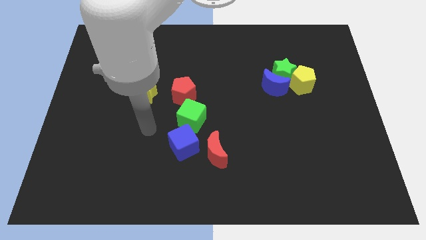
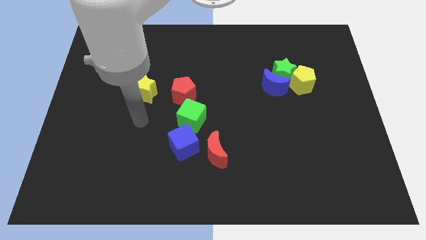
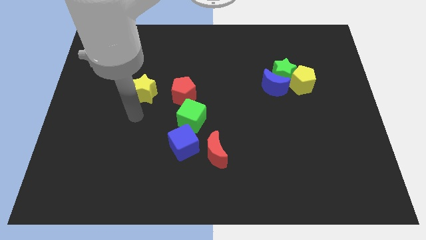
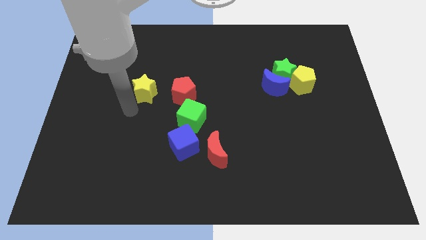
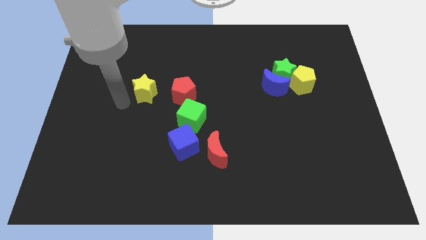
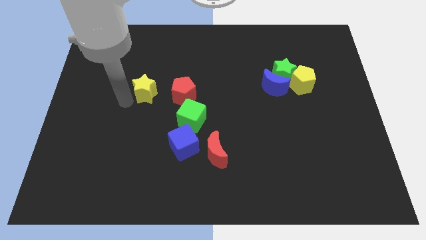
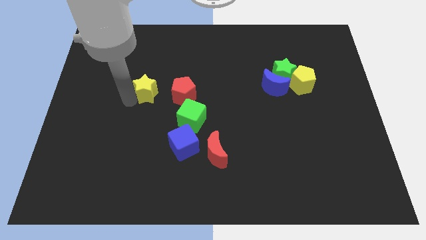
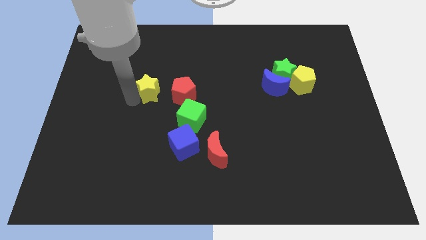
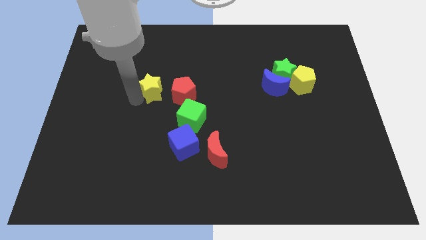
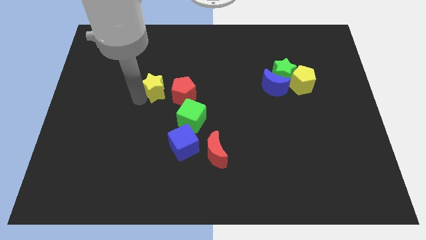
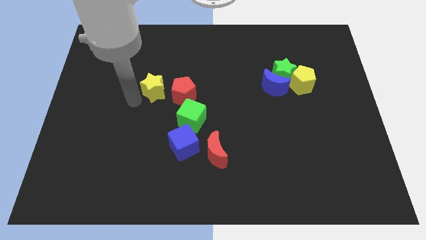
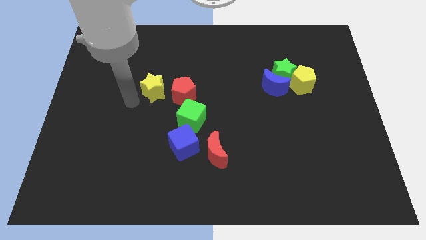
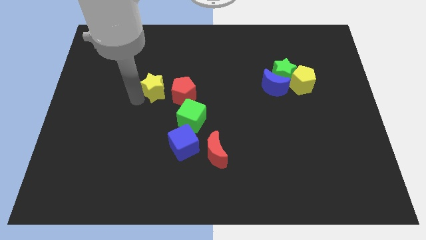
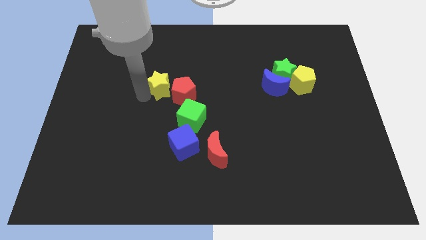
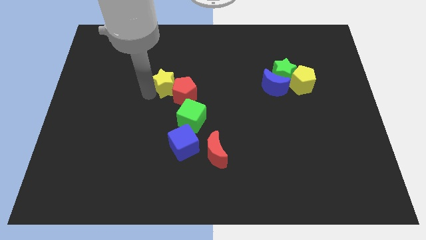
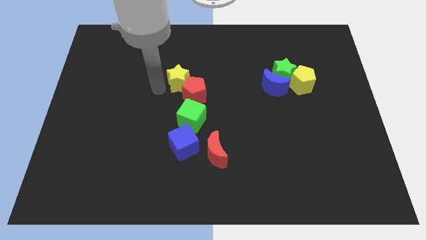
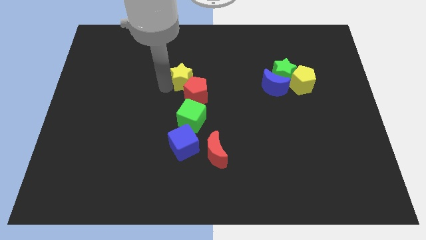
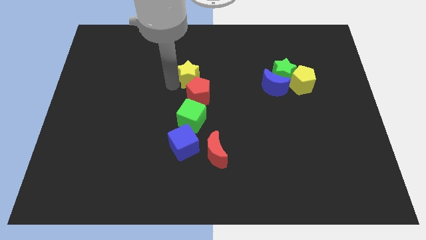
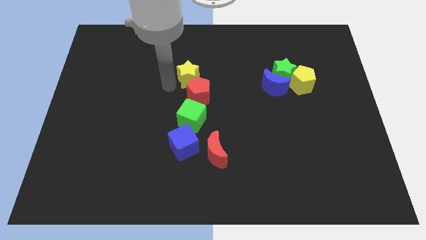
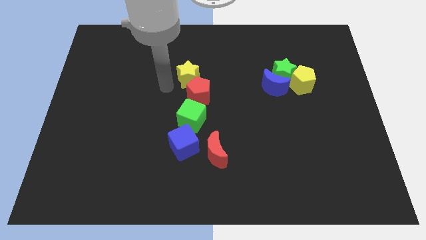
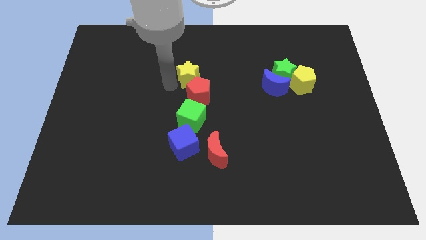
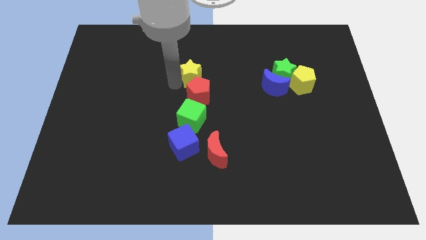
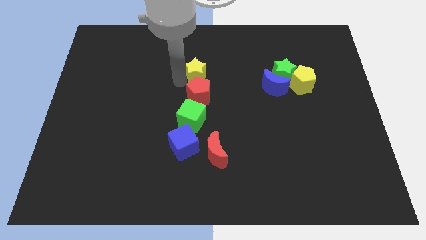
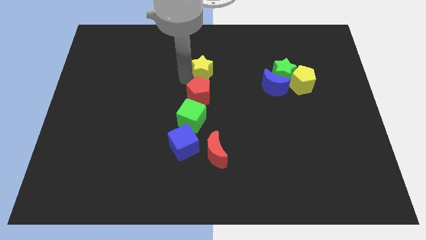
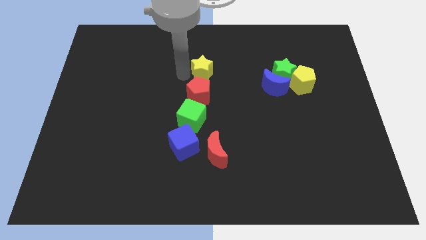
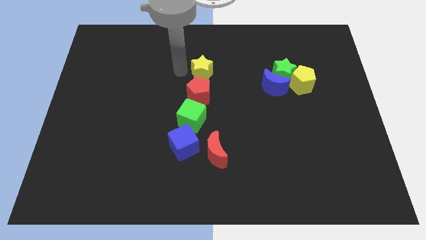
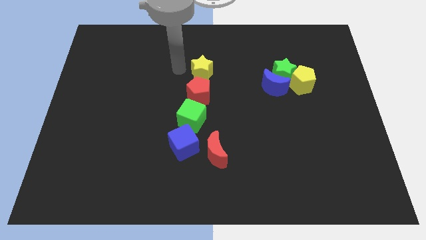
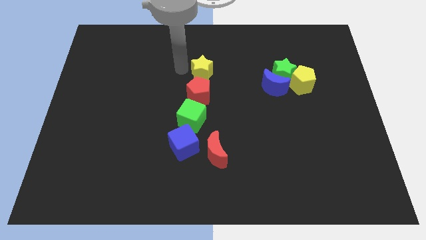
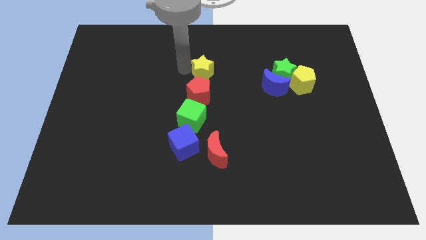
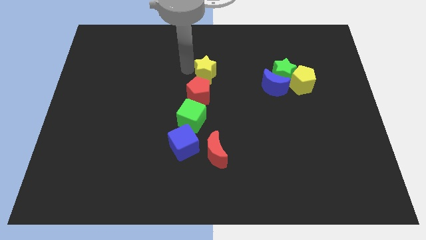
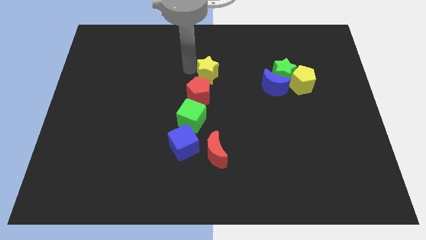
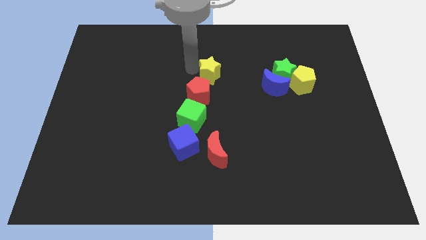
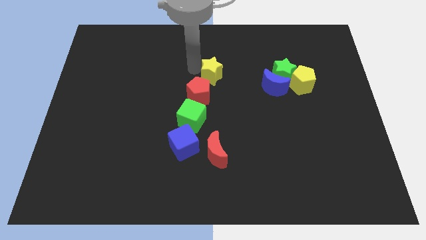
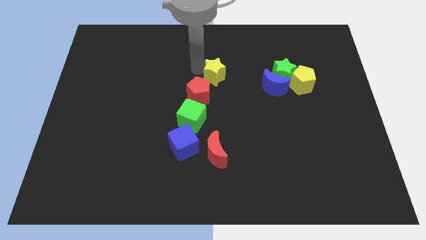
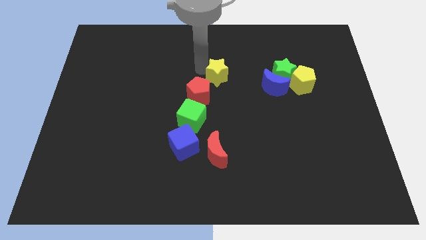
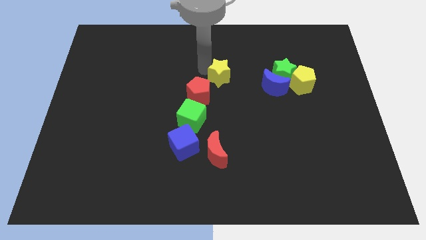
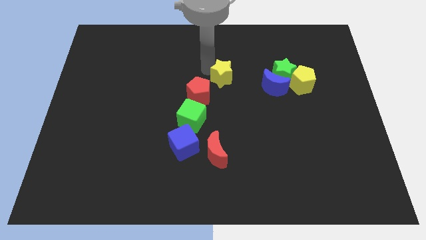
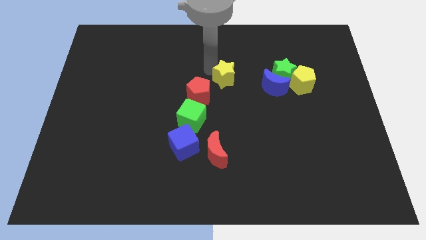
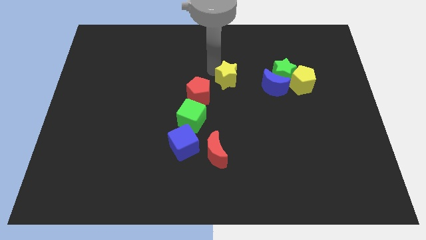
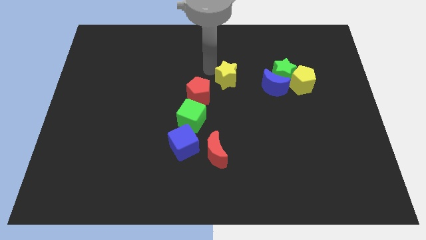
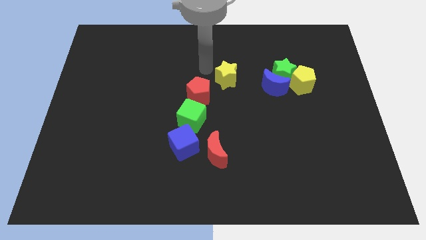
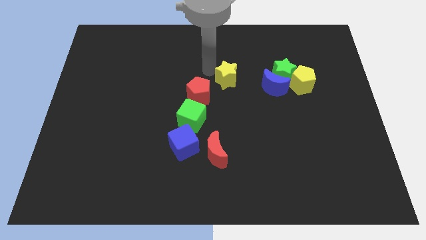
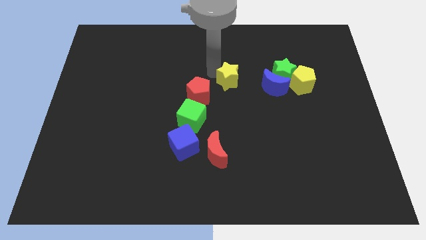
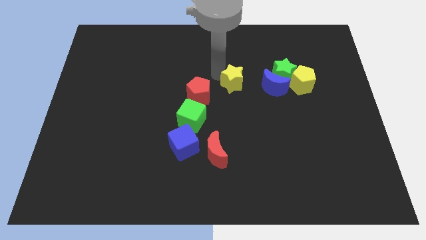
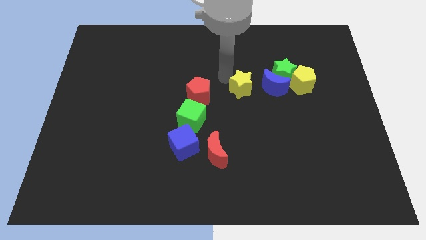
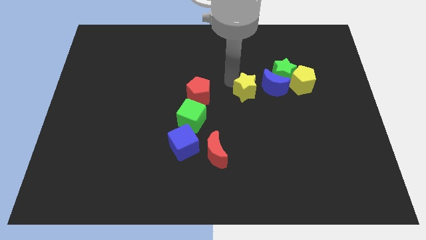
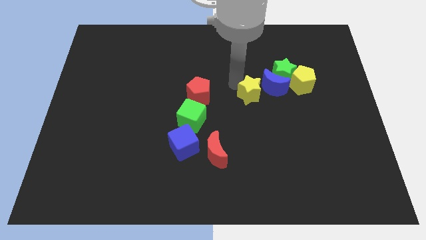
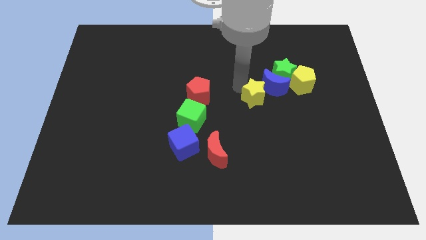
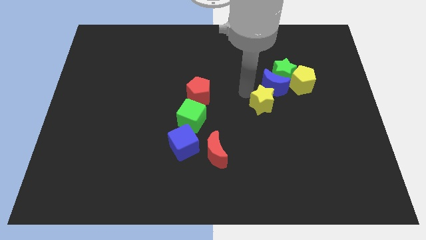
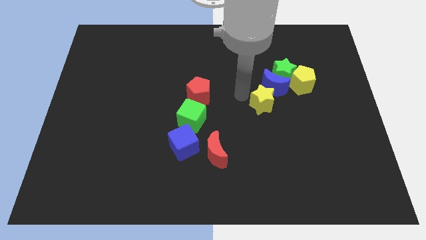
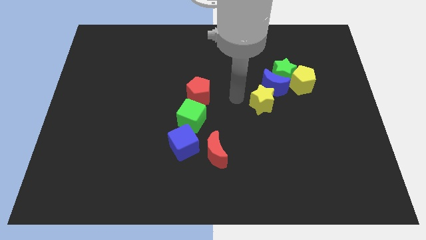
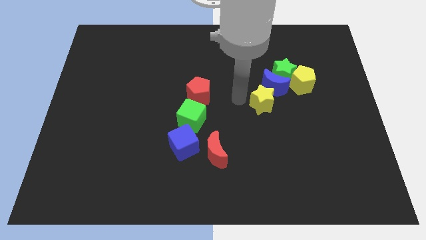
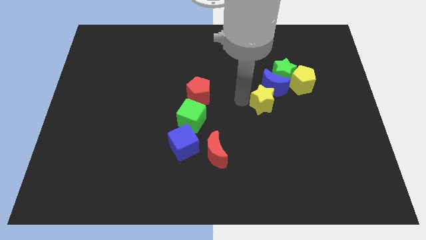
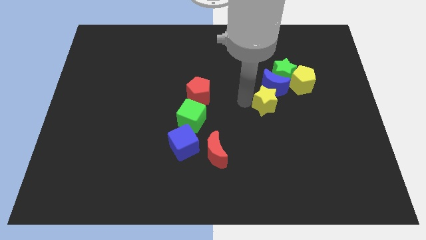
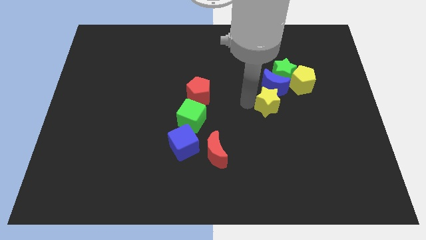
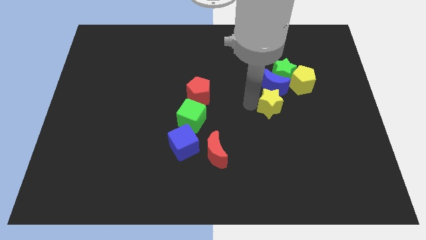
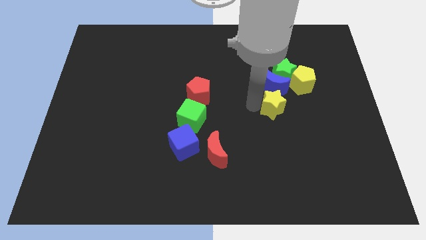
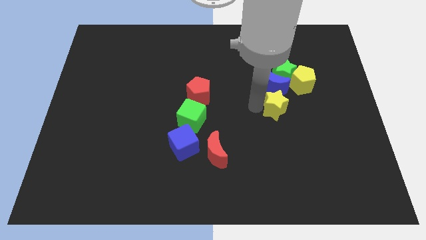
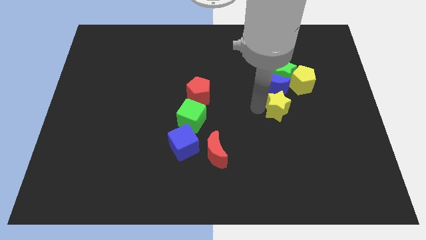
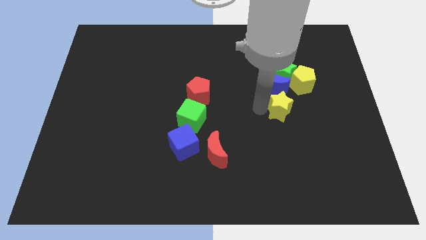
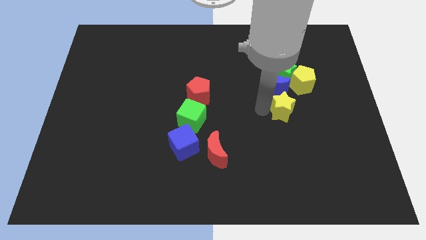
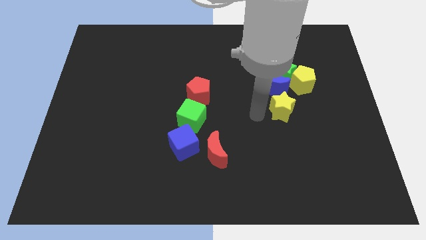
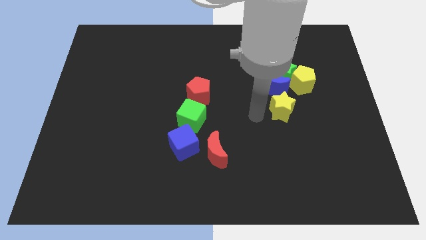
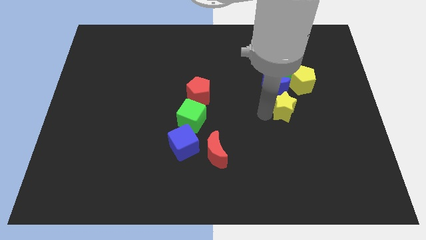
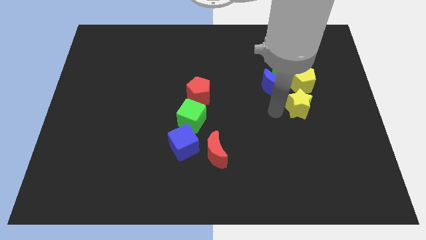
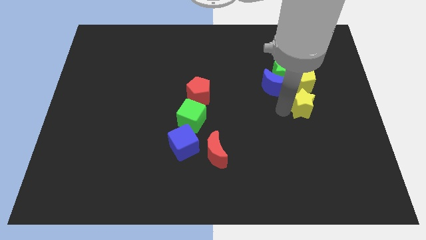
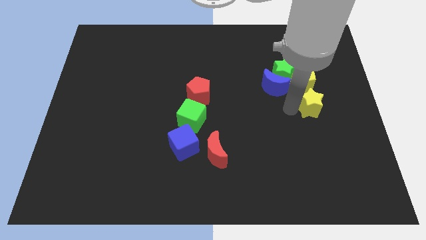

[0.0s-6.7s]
move the yellow star diagonally down and to the right of the yellow pentagon

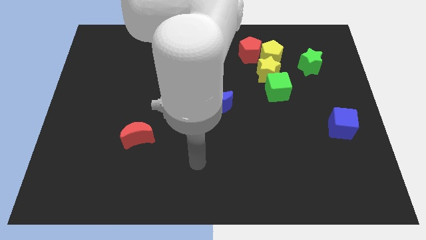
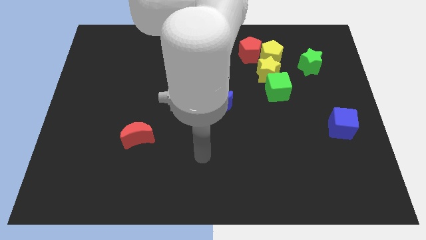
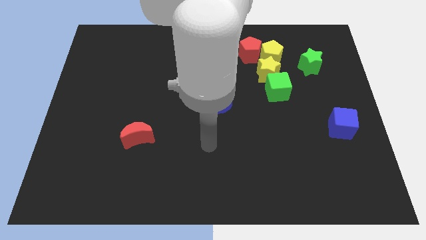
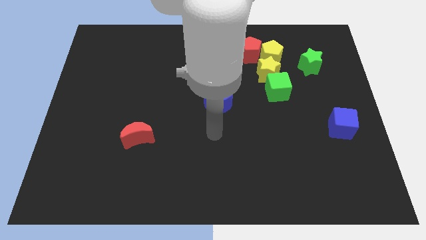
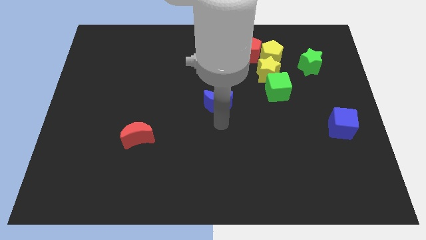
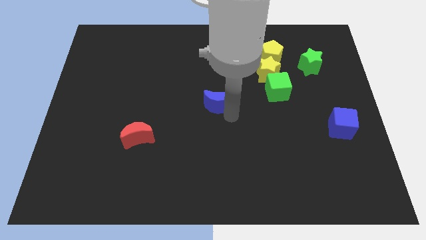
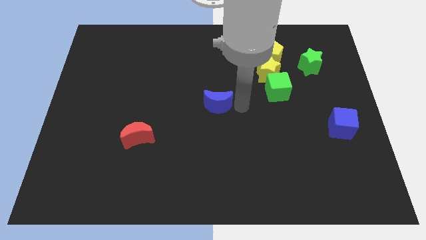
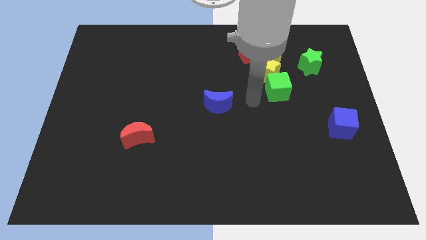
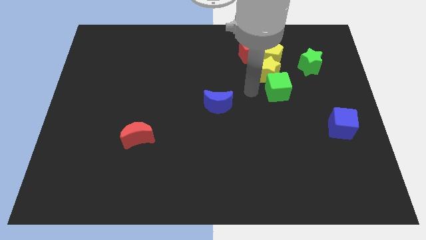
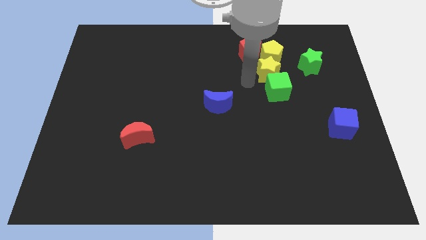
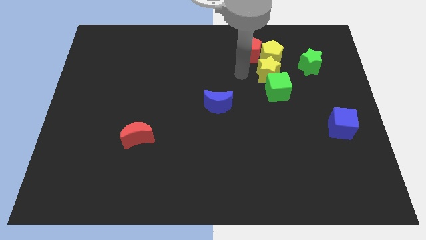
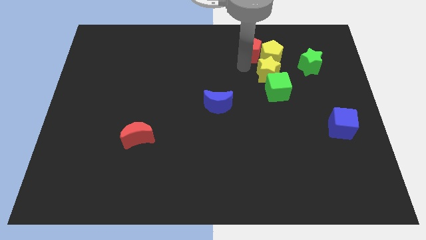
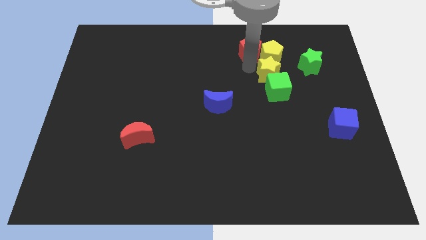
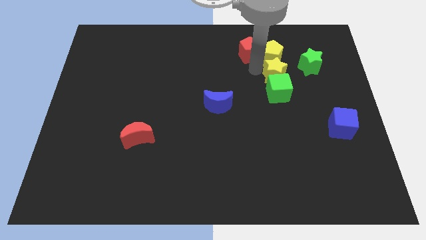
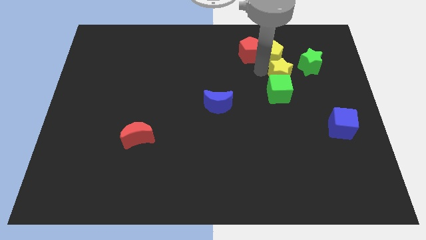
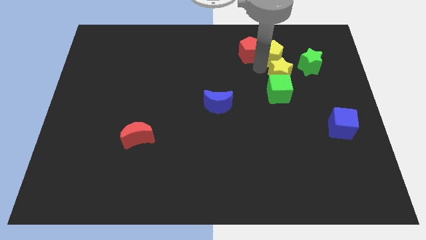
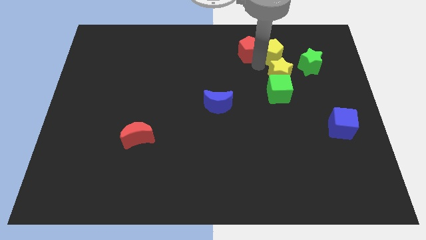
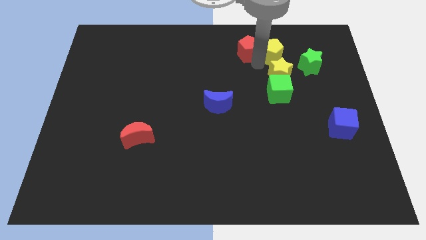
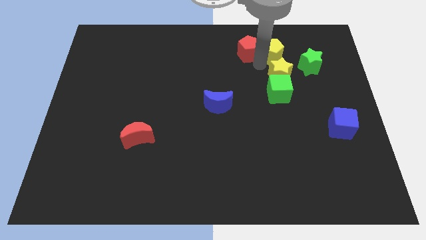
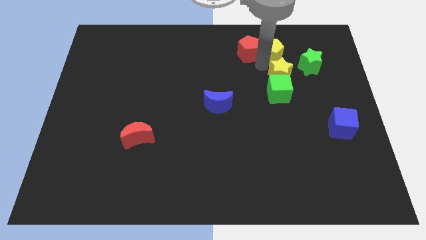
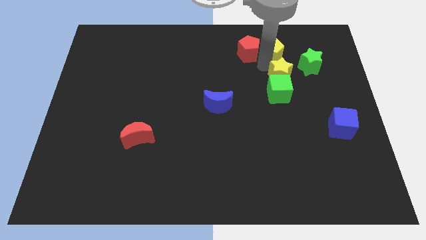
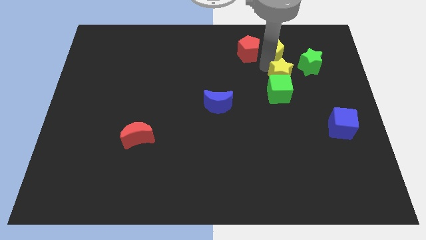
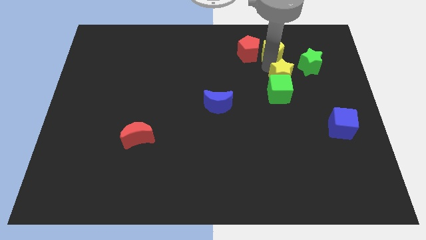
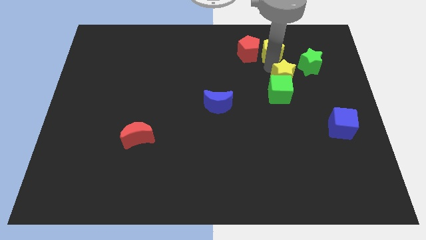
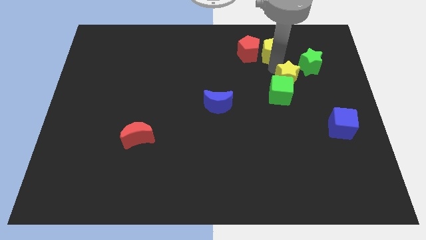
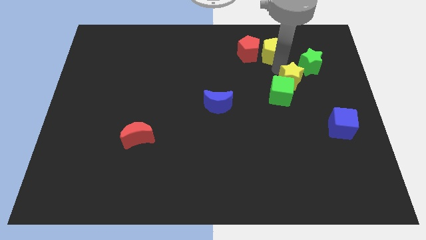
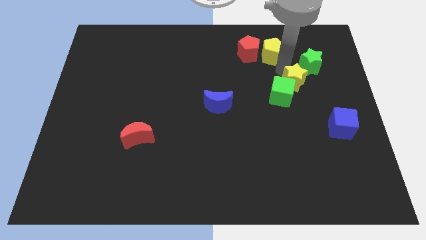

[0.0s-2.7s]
push the yellow star just right of the green cube
